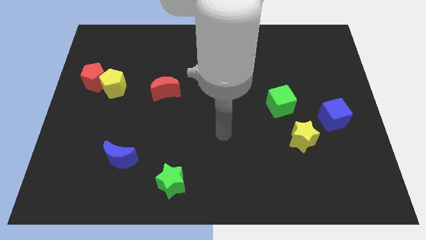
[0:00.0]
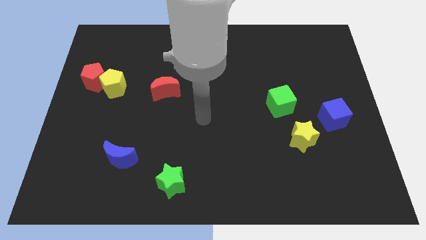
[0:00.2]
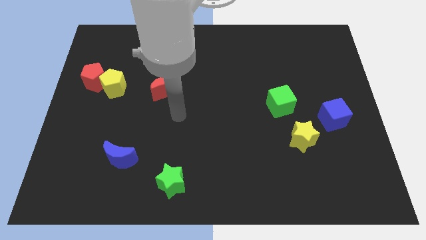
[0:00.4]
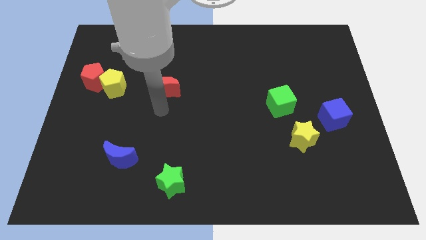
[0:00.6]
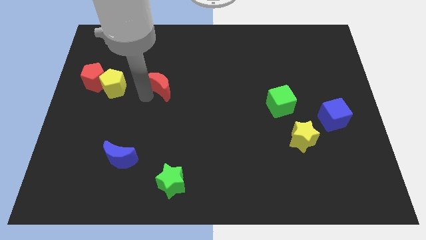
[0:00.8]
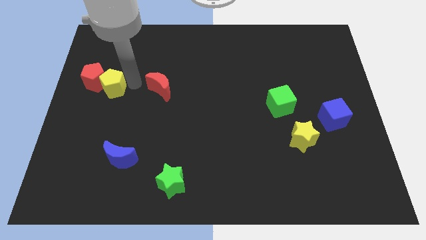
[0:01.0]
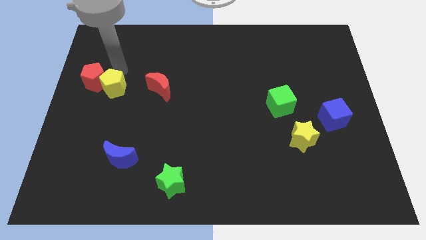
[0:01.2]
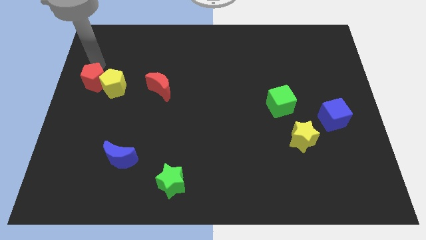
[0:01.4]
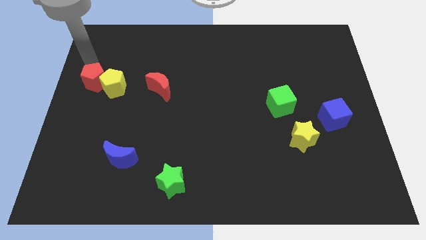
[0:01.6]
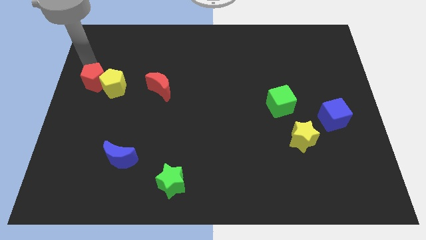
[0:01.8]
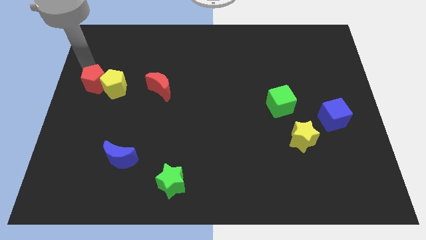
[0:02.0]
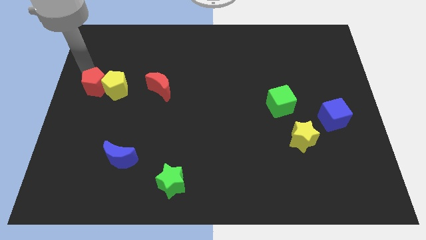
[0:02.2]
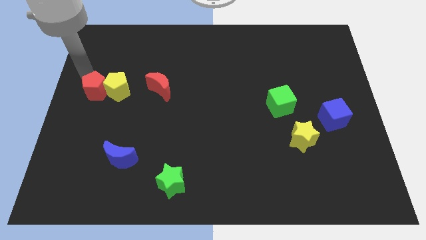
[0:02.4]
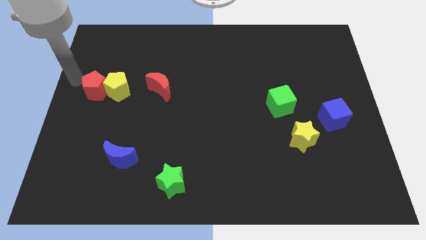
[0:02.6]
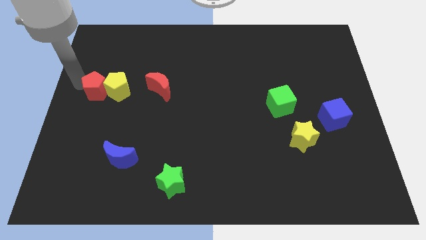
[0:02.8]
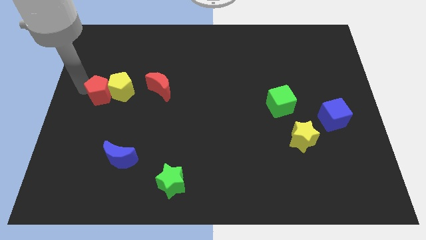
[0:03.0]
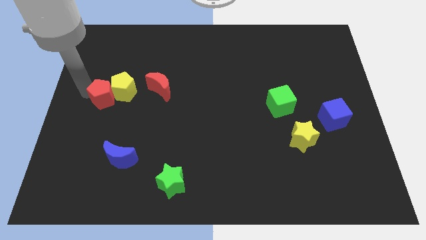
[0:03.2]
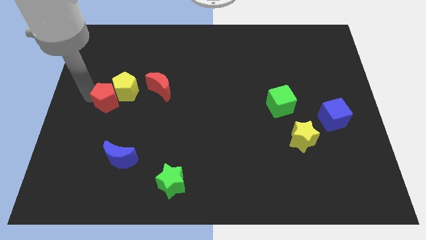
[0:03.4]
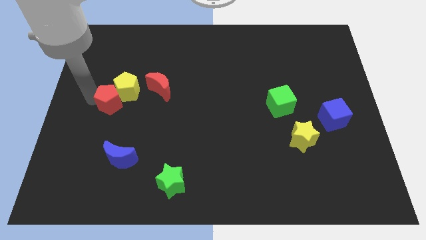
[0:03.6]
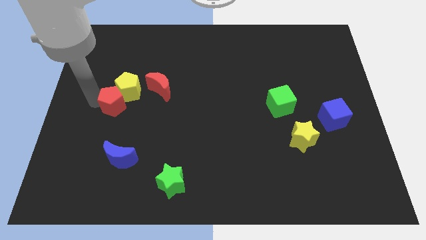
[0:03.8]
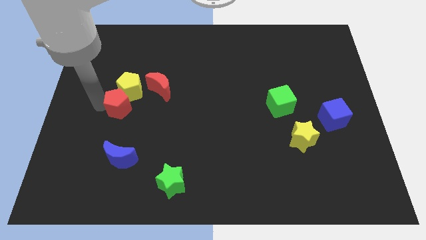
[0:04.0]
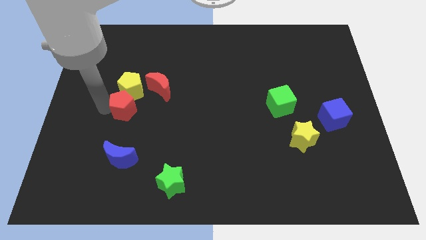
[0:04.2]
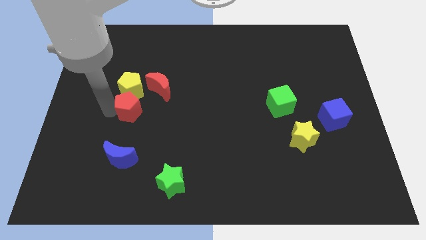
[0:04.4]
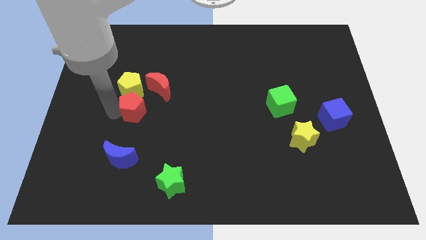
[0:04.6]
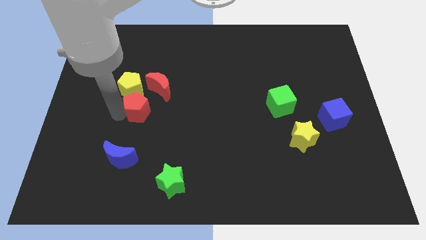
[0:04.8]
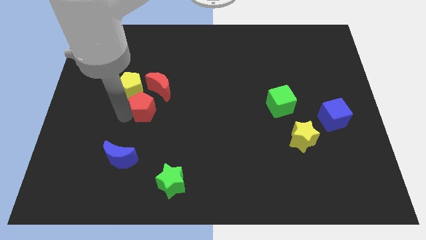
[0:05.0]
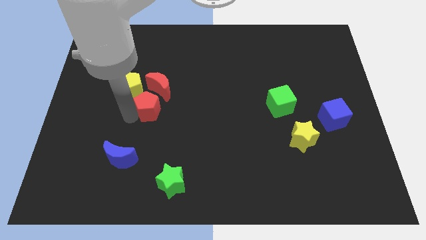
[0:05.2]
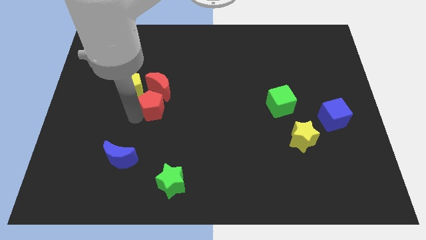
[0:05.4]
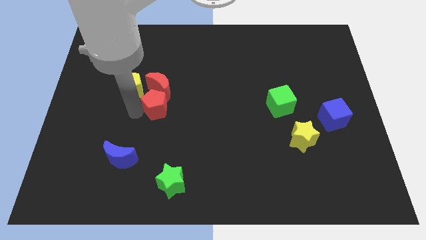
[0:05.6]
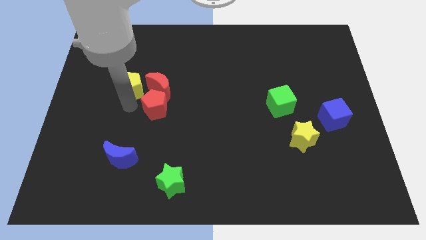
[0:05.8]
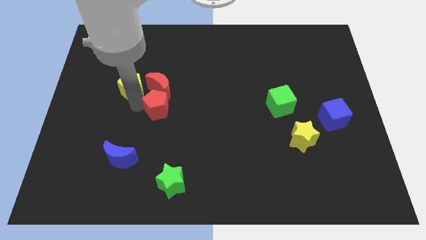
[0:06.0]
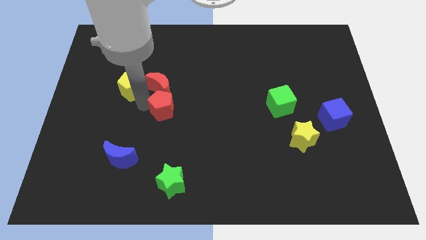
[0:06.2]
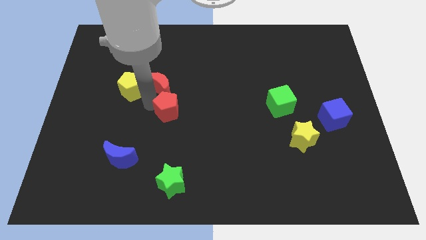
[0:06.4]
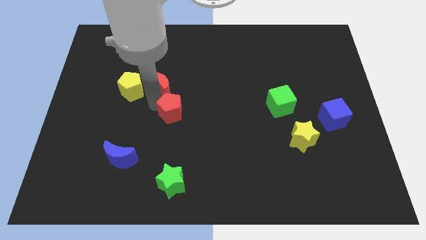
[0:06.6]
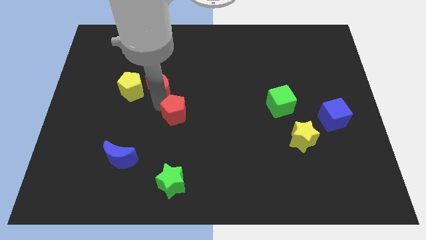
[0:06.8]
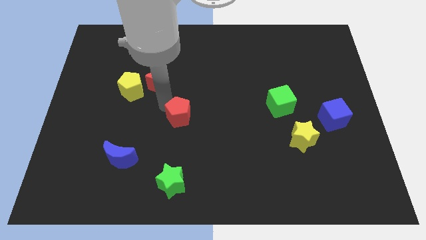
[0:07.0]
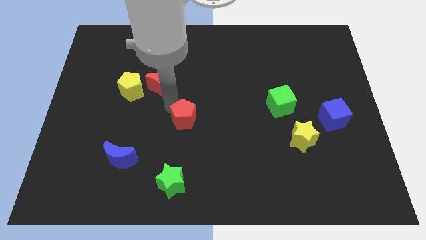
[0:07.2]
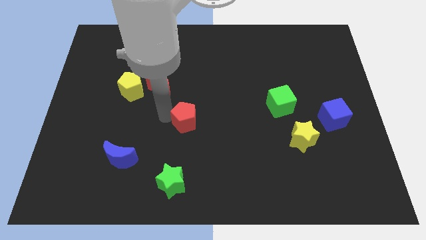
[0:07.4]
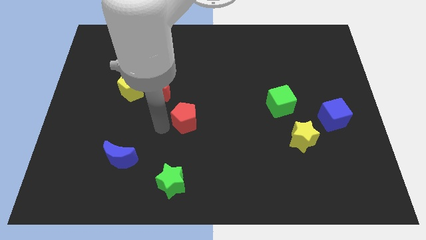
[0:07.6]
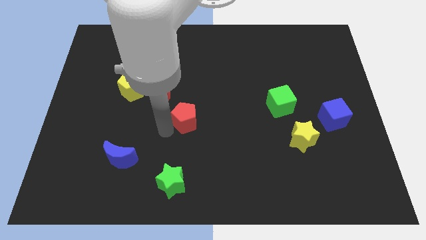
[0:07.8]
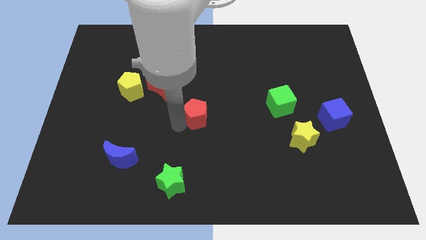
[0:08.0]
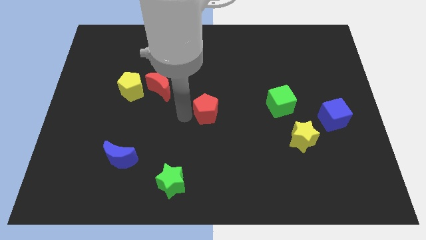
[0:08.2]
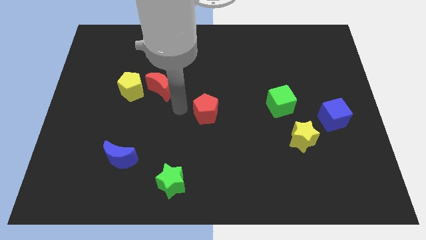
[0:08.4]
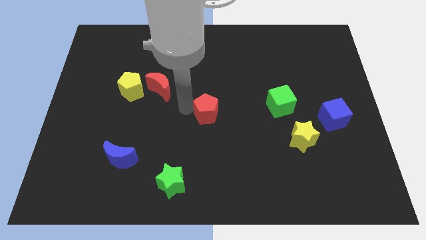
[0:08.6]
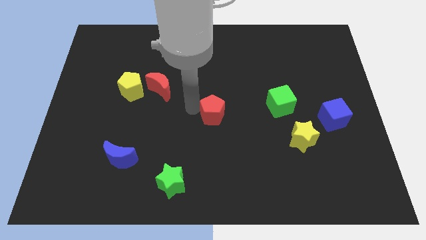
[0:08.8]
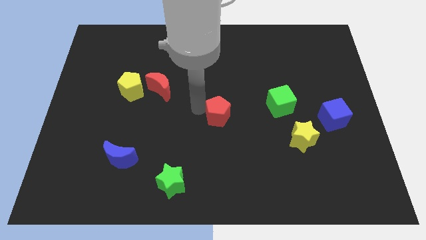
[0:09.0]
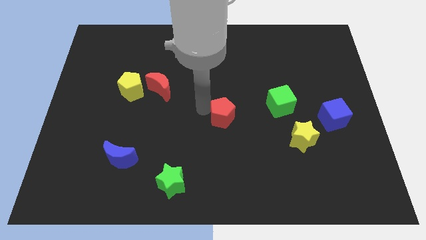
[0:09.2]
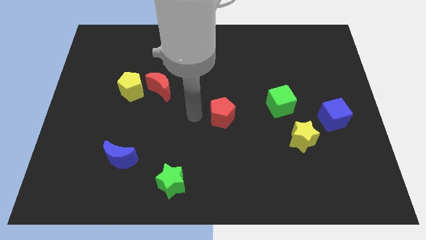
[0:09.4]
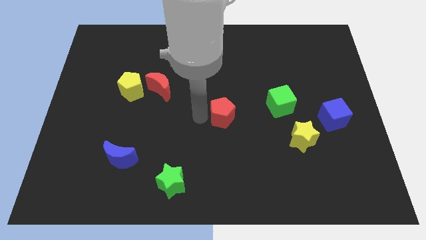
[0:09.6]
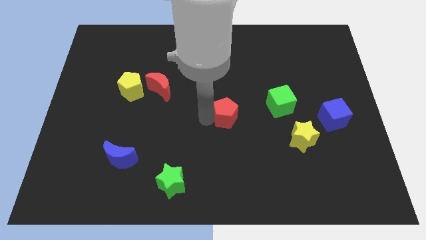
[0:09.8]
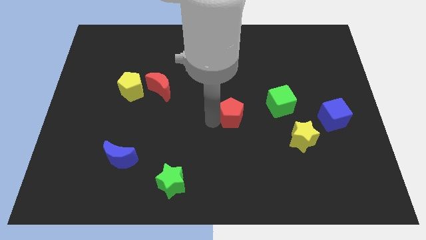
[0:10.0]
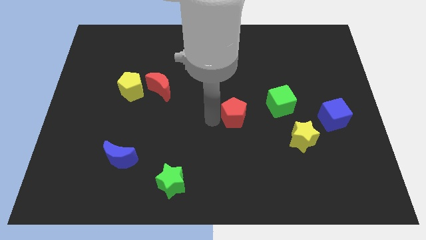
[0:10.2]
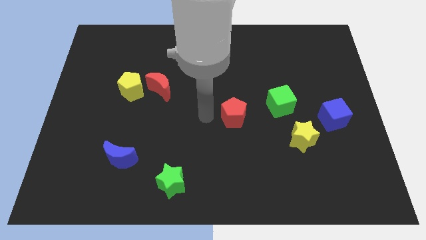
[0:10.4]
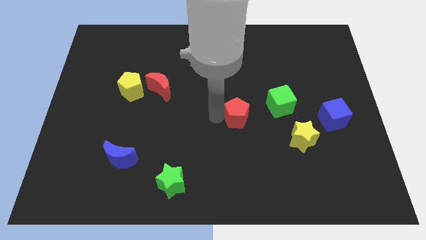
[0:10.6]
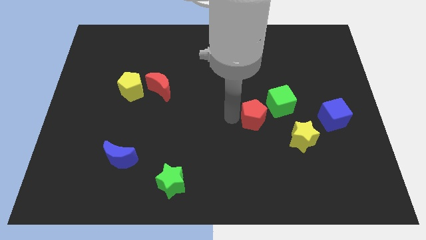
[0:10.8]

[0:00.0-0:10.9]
move the red pentagon to the top left side of the yellow star

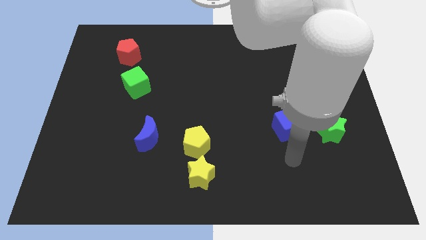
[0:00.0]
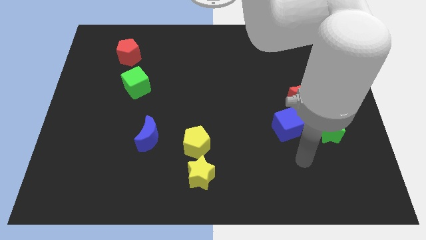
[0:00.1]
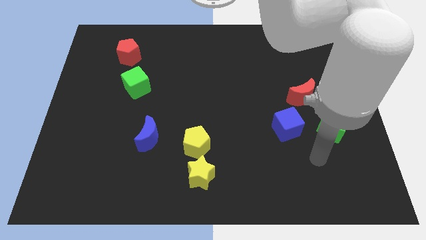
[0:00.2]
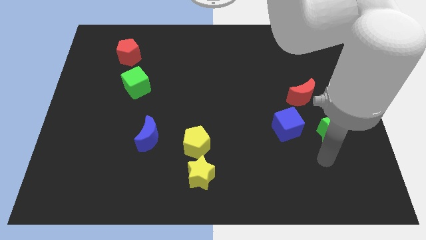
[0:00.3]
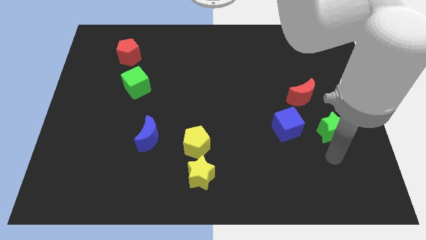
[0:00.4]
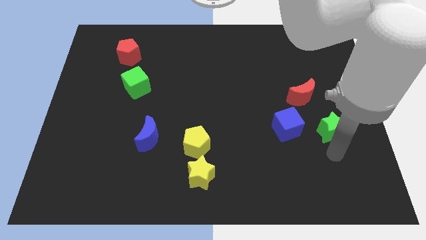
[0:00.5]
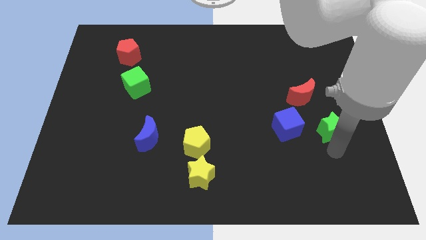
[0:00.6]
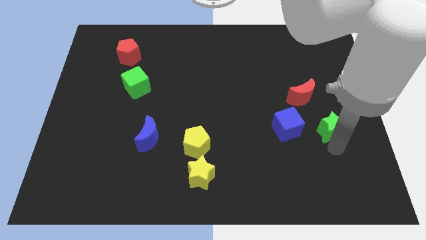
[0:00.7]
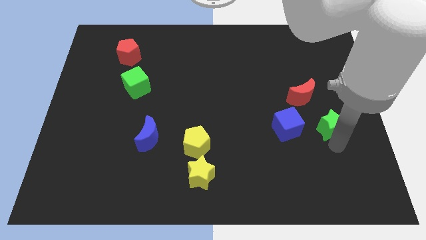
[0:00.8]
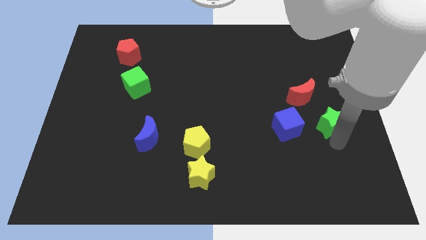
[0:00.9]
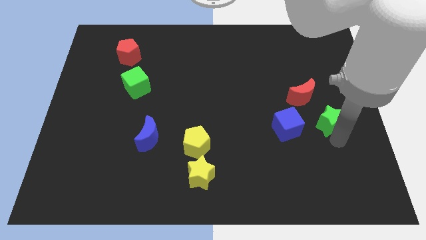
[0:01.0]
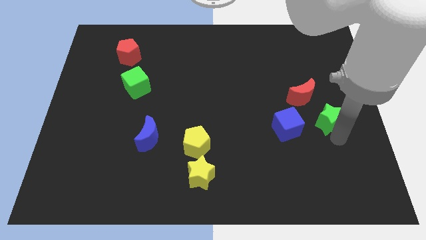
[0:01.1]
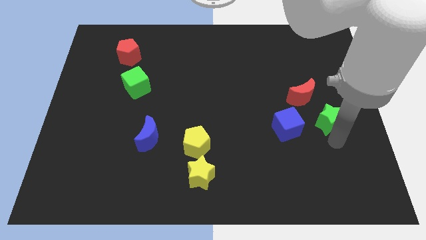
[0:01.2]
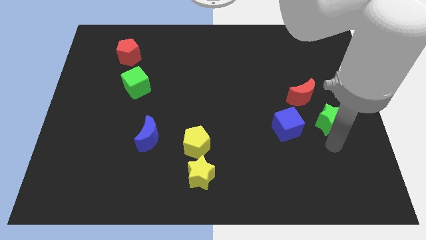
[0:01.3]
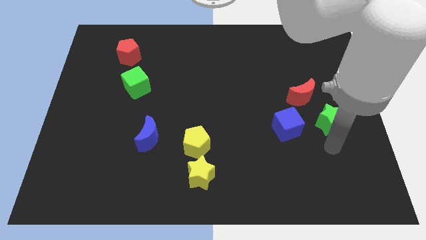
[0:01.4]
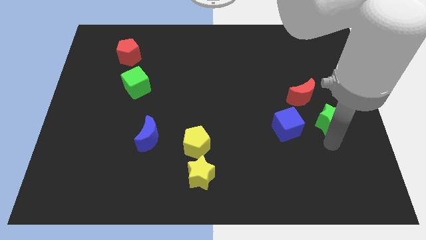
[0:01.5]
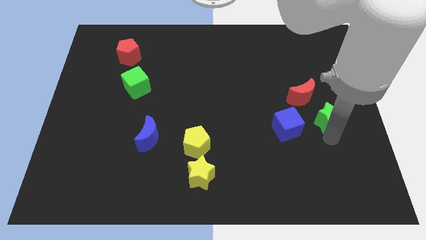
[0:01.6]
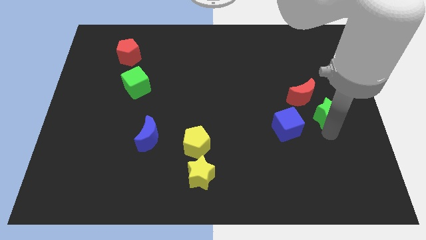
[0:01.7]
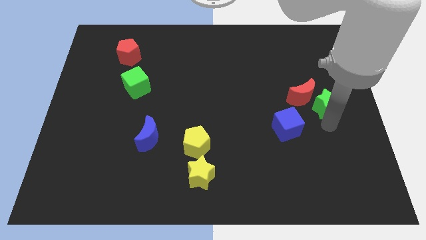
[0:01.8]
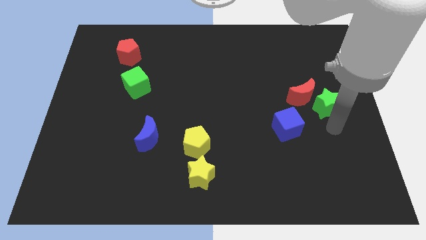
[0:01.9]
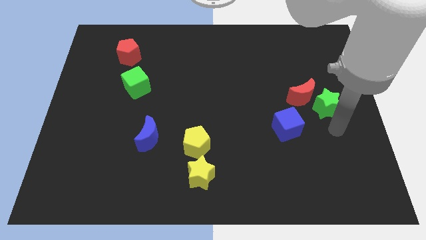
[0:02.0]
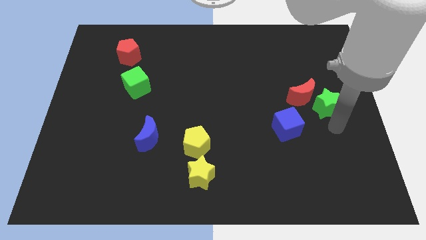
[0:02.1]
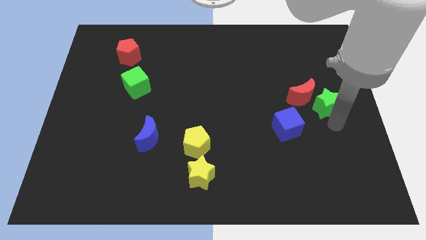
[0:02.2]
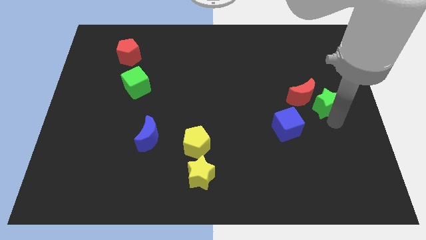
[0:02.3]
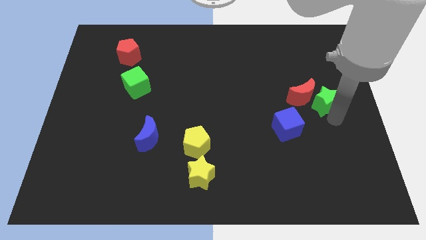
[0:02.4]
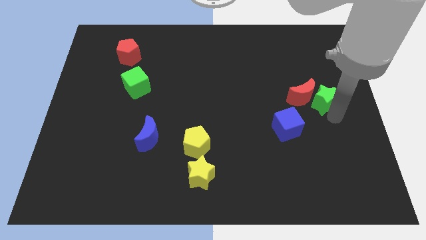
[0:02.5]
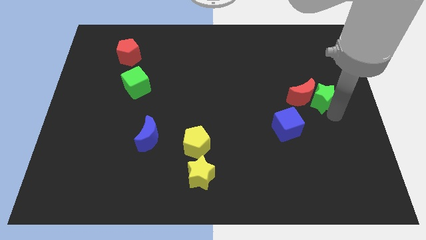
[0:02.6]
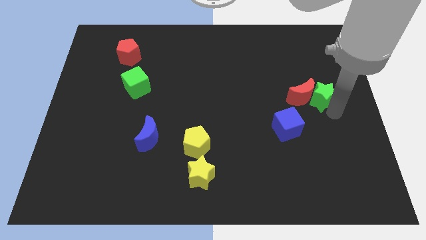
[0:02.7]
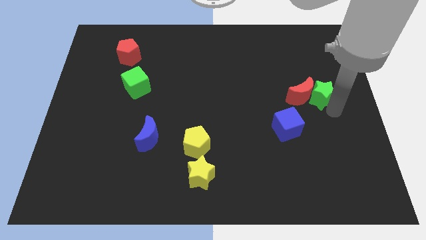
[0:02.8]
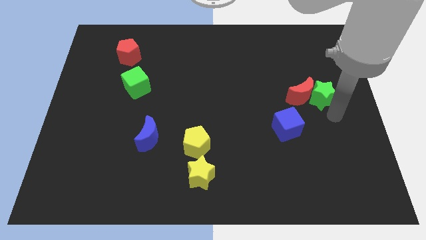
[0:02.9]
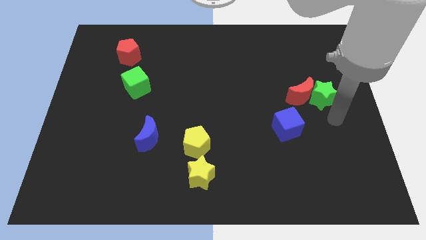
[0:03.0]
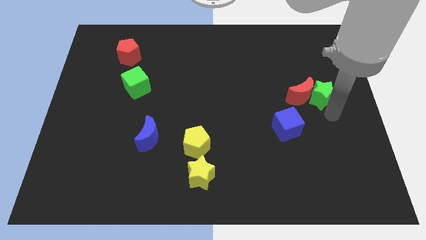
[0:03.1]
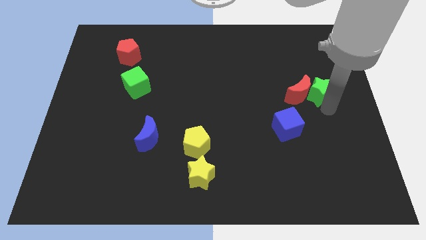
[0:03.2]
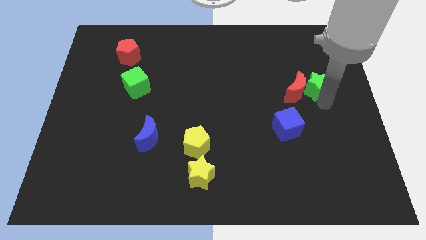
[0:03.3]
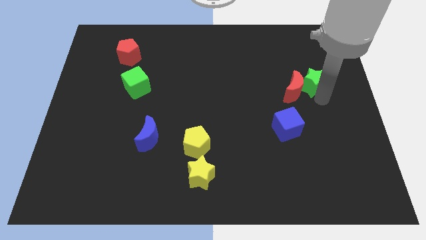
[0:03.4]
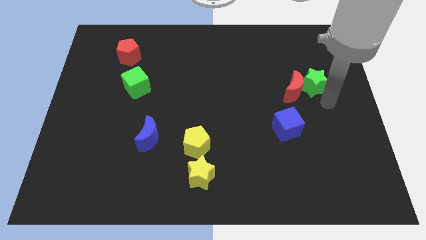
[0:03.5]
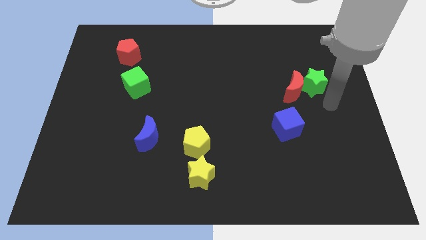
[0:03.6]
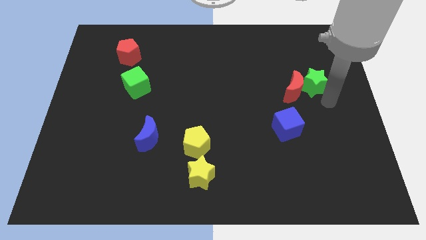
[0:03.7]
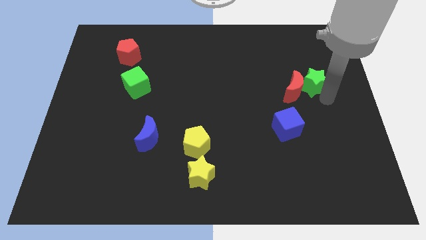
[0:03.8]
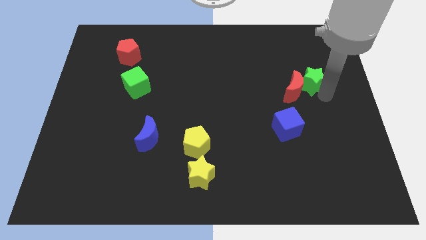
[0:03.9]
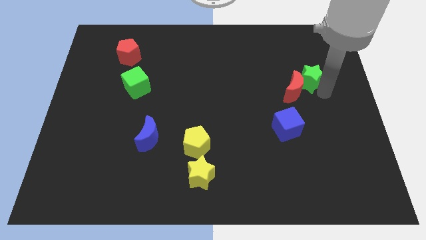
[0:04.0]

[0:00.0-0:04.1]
put the green star to the top of the red moon
